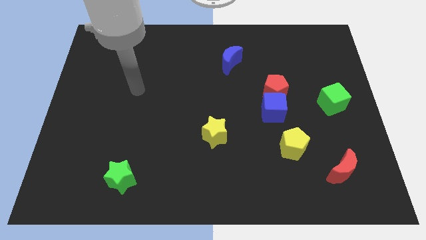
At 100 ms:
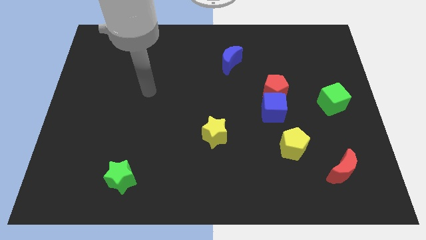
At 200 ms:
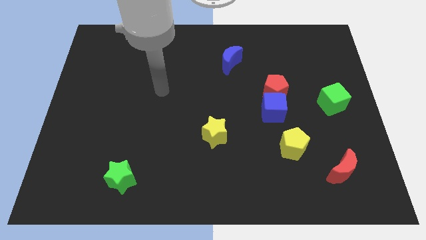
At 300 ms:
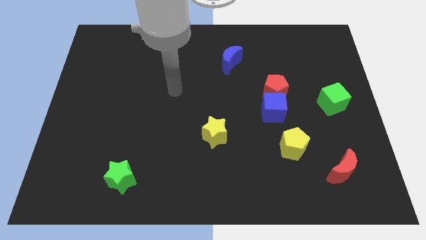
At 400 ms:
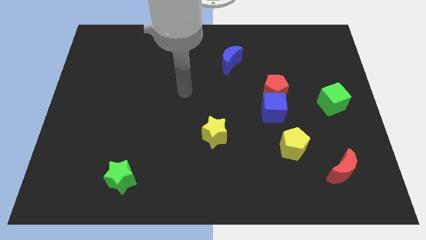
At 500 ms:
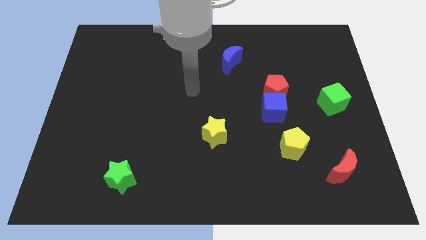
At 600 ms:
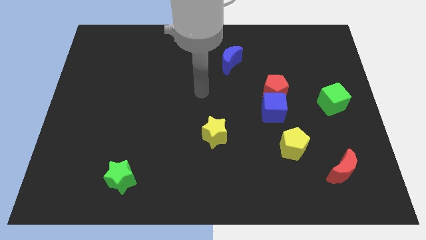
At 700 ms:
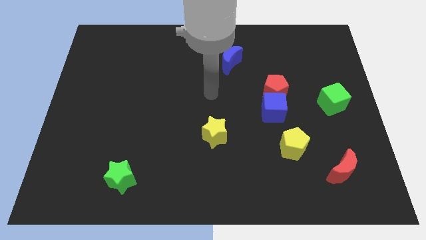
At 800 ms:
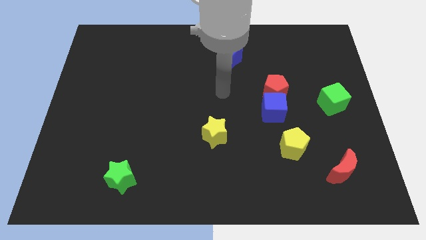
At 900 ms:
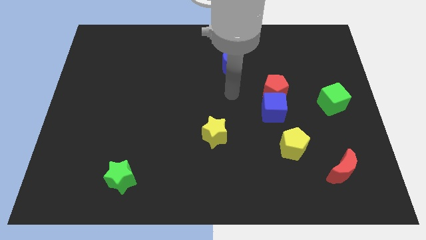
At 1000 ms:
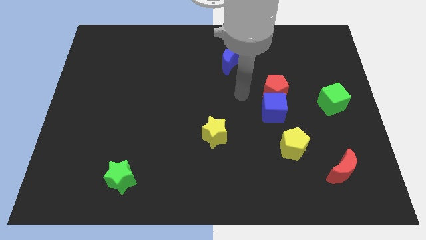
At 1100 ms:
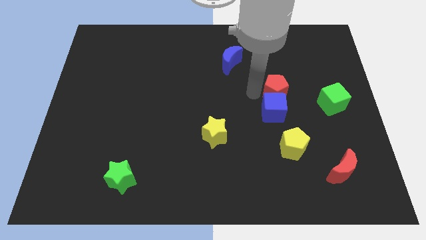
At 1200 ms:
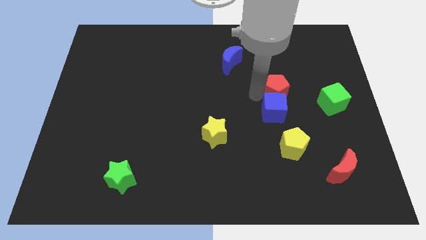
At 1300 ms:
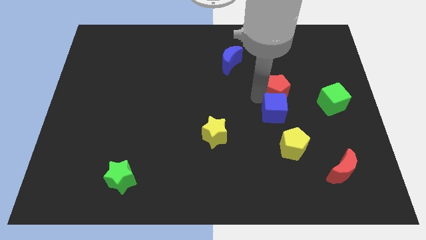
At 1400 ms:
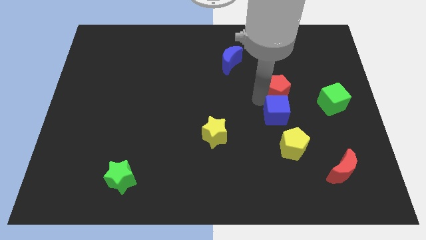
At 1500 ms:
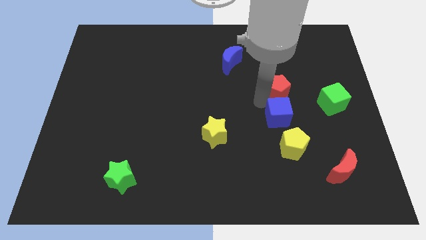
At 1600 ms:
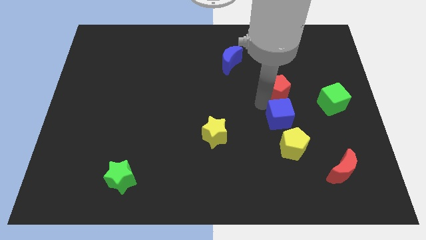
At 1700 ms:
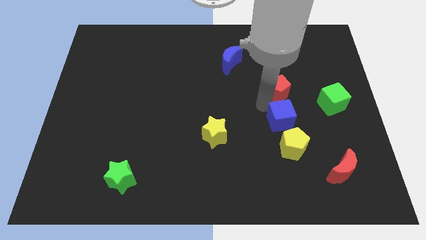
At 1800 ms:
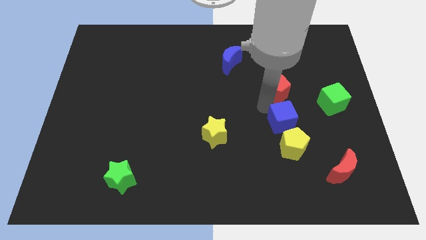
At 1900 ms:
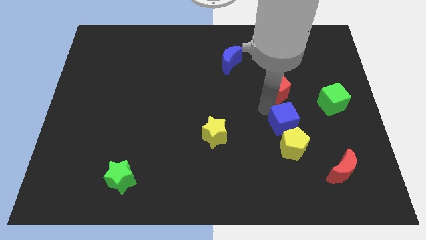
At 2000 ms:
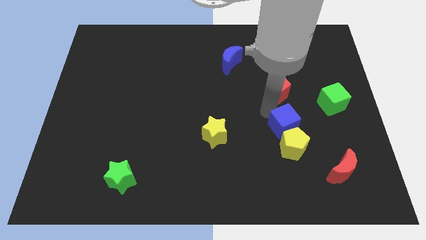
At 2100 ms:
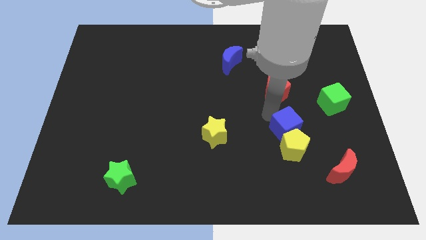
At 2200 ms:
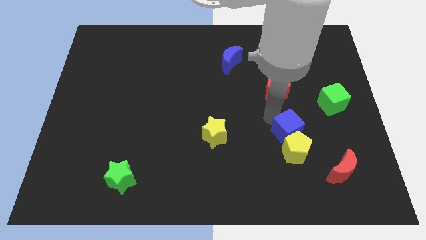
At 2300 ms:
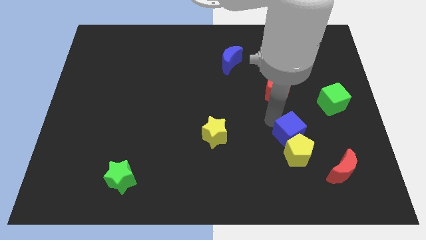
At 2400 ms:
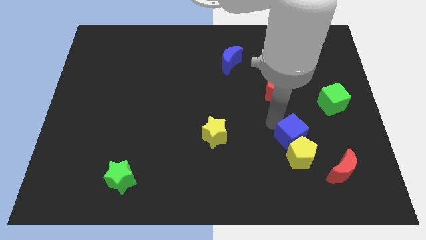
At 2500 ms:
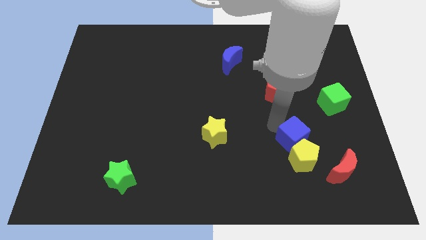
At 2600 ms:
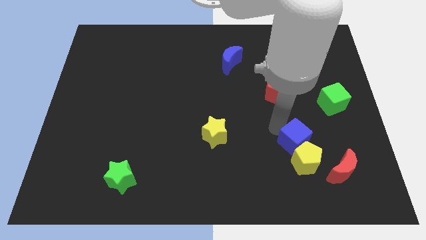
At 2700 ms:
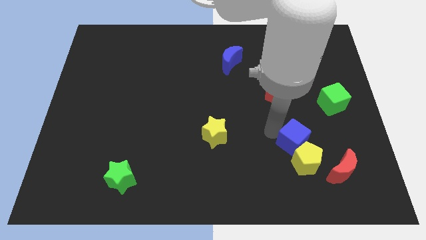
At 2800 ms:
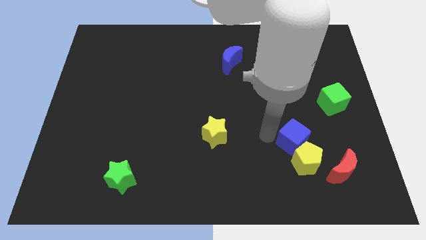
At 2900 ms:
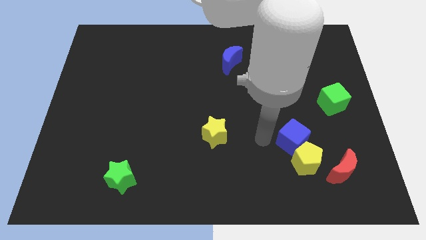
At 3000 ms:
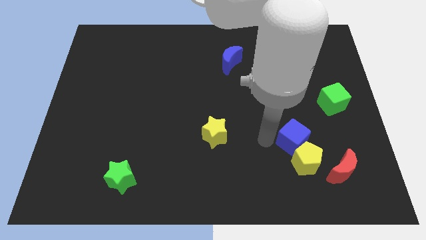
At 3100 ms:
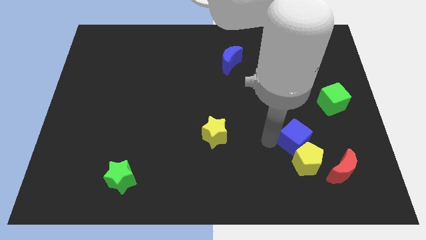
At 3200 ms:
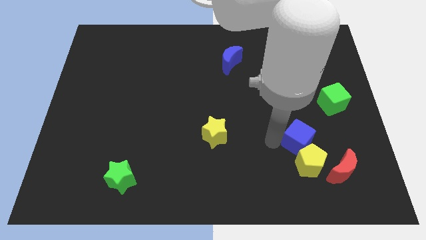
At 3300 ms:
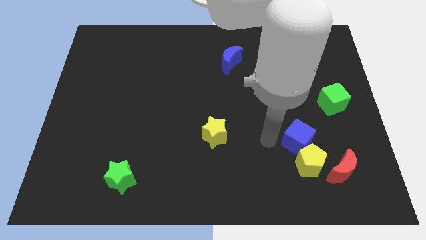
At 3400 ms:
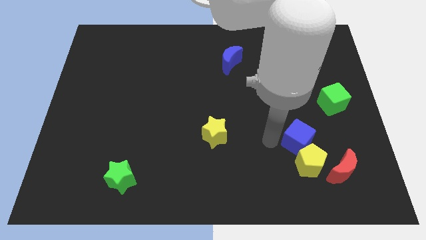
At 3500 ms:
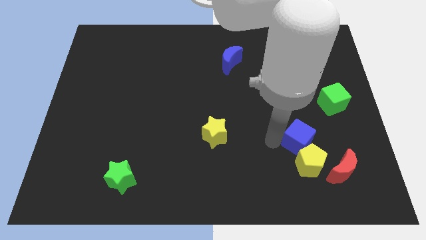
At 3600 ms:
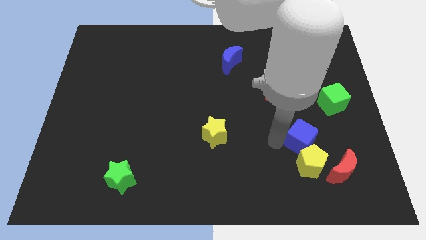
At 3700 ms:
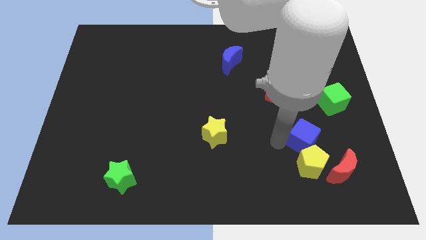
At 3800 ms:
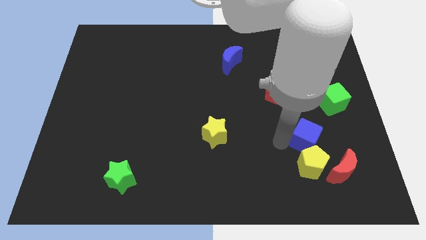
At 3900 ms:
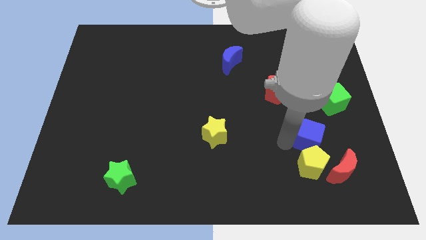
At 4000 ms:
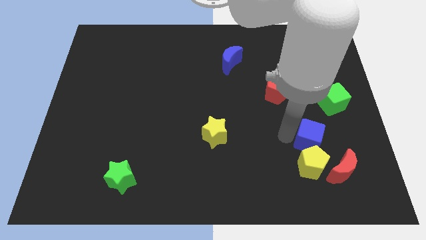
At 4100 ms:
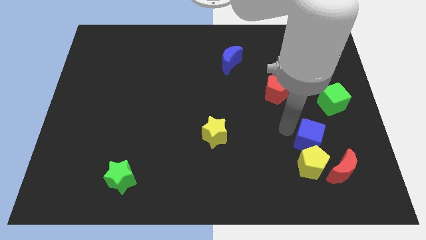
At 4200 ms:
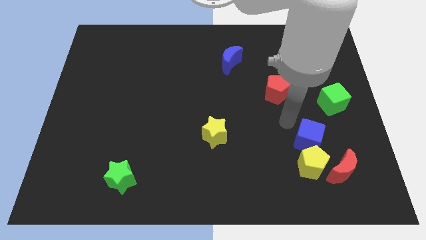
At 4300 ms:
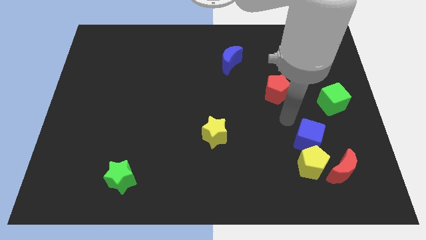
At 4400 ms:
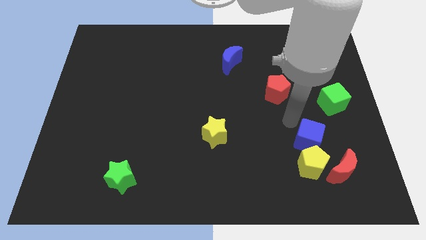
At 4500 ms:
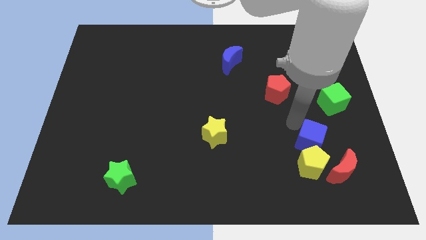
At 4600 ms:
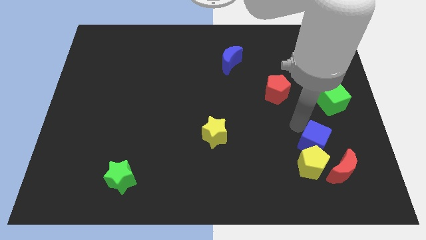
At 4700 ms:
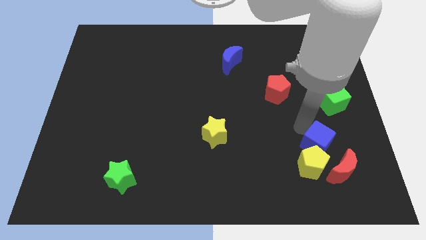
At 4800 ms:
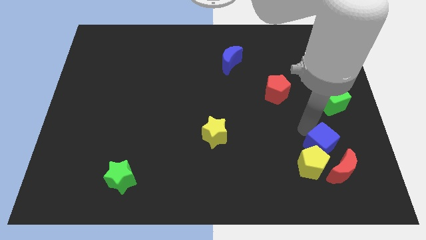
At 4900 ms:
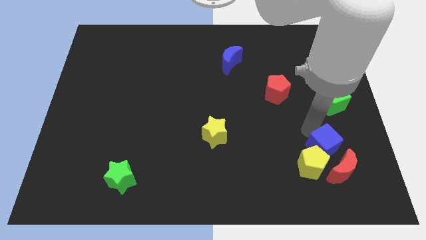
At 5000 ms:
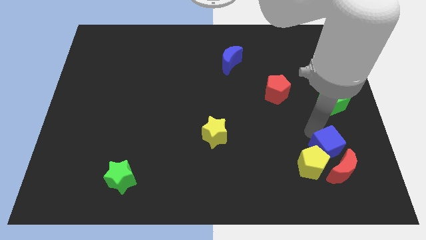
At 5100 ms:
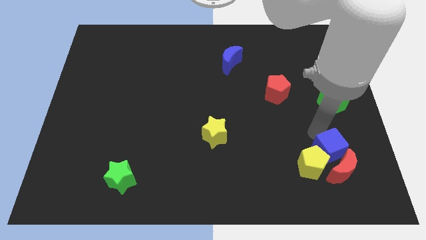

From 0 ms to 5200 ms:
push the blue cube close to the red moon

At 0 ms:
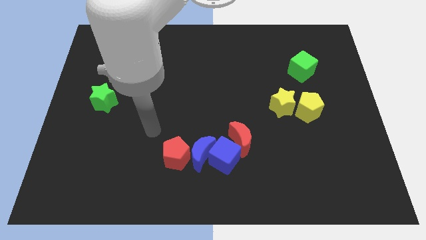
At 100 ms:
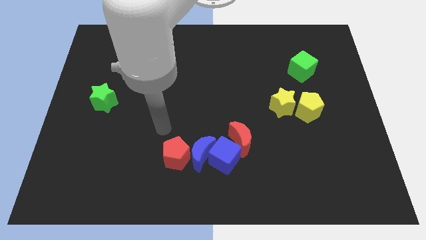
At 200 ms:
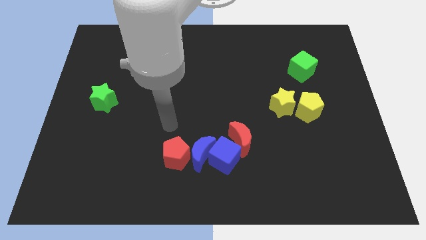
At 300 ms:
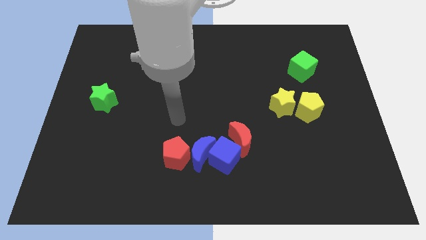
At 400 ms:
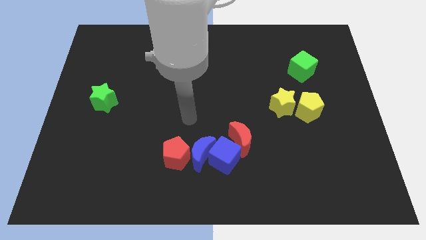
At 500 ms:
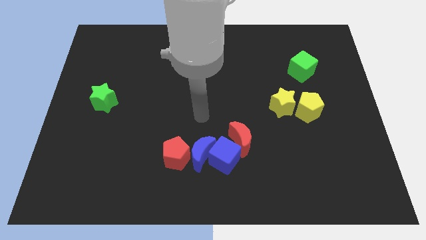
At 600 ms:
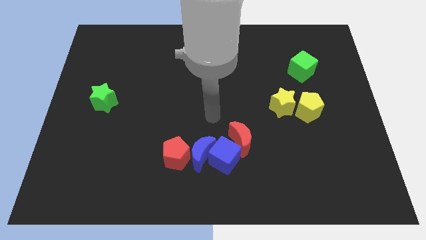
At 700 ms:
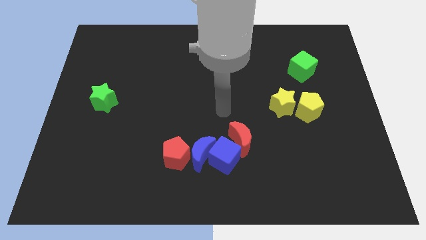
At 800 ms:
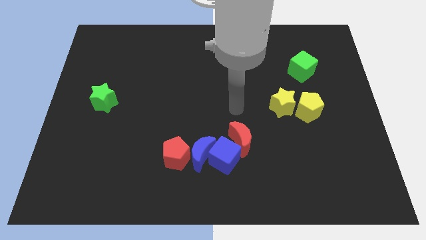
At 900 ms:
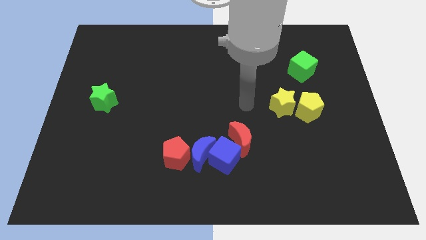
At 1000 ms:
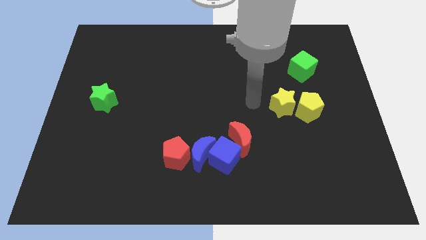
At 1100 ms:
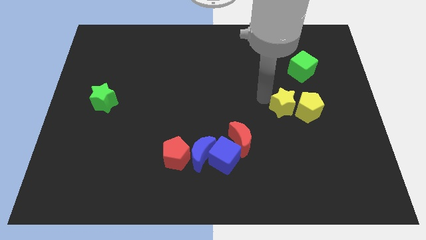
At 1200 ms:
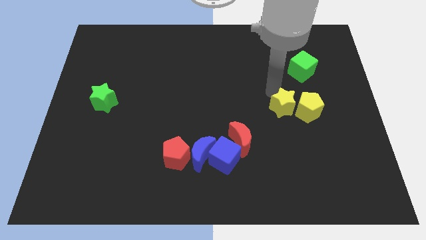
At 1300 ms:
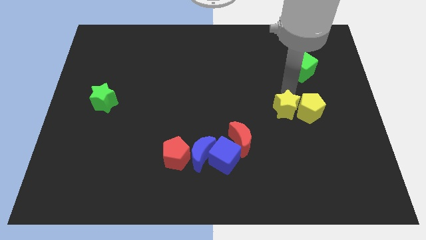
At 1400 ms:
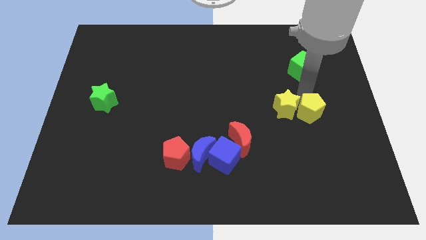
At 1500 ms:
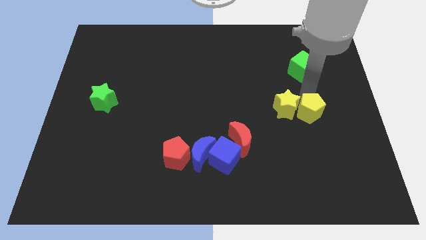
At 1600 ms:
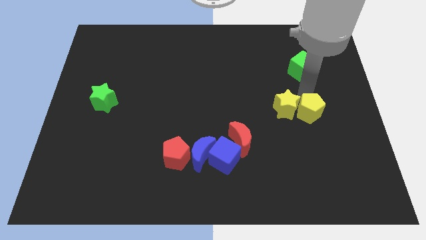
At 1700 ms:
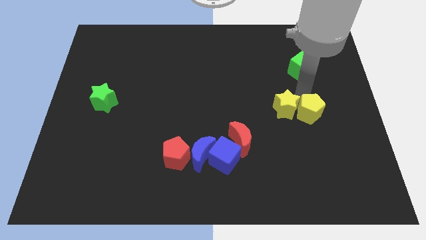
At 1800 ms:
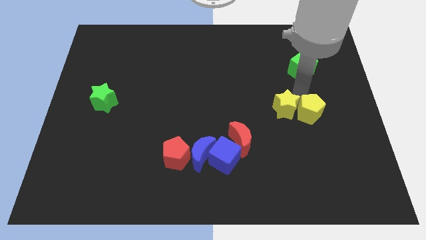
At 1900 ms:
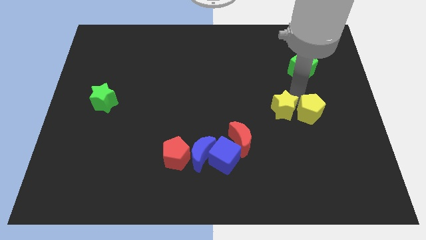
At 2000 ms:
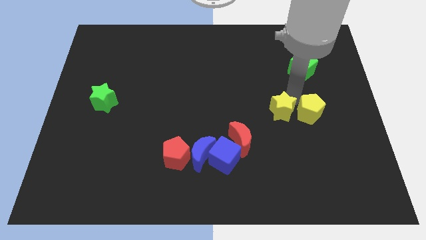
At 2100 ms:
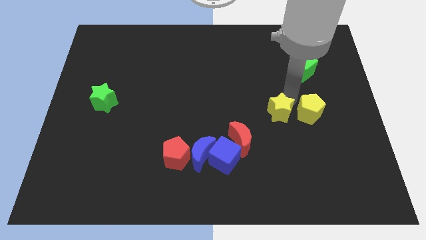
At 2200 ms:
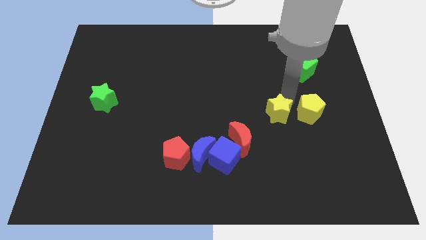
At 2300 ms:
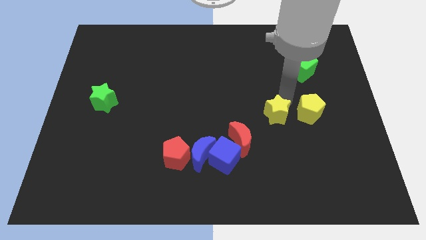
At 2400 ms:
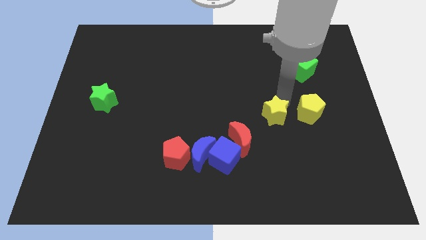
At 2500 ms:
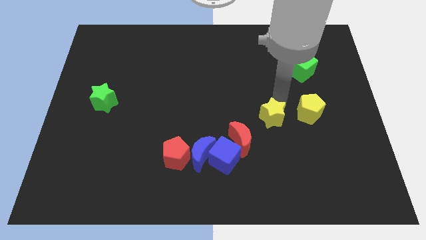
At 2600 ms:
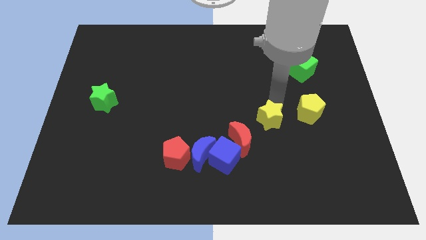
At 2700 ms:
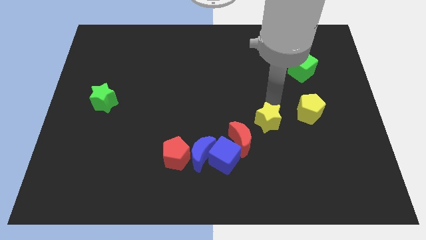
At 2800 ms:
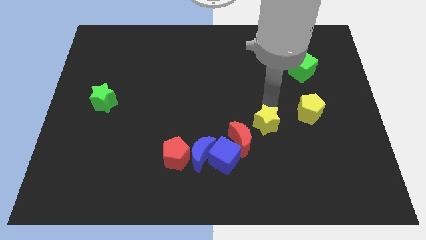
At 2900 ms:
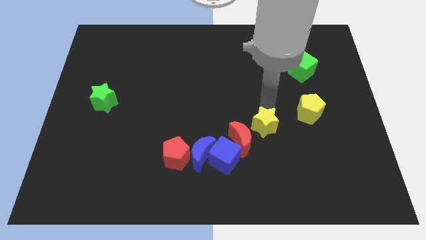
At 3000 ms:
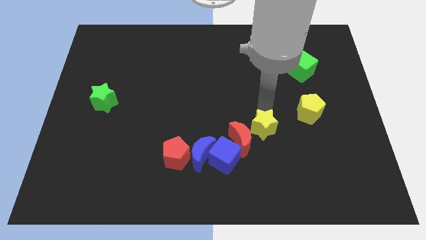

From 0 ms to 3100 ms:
slide the yellow star next to the red moon
